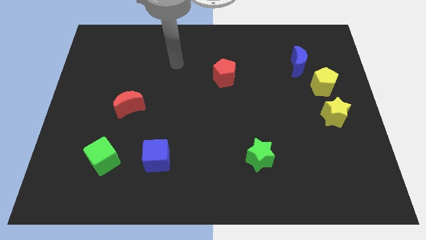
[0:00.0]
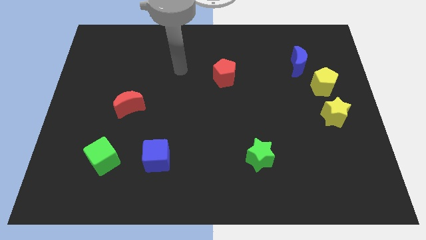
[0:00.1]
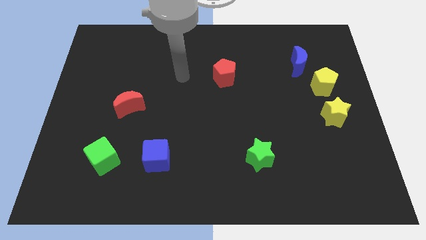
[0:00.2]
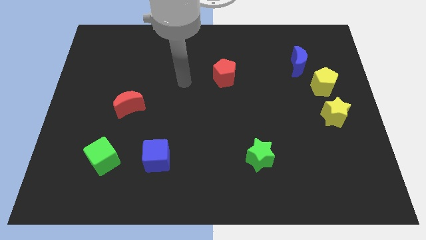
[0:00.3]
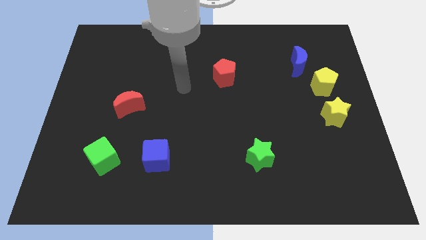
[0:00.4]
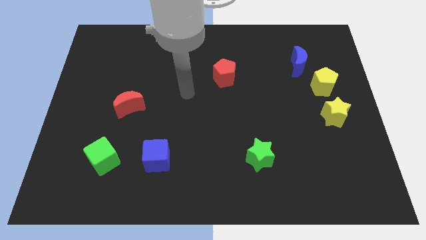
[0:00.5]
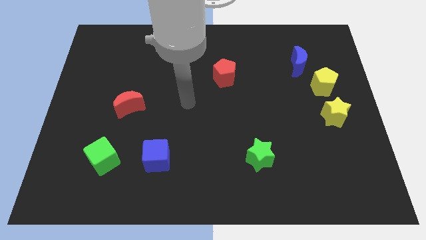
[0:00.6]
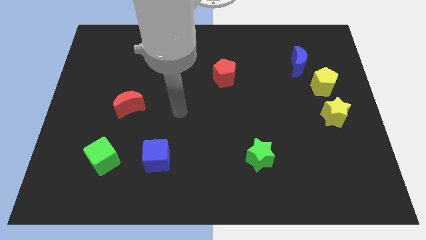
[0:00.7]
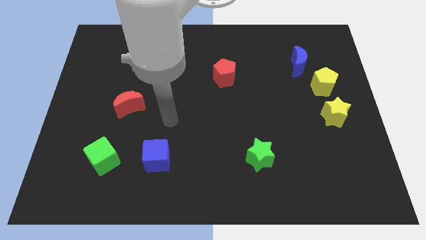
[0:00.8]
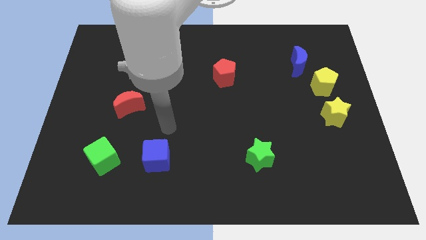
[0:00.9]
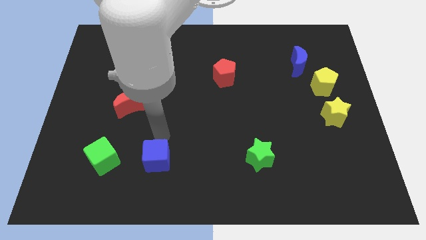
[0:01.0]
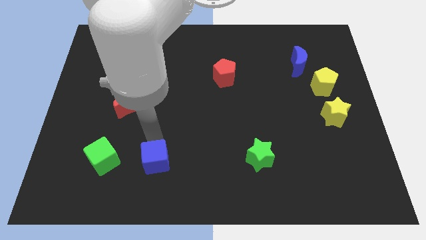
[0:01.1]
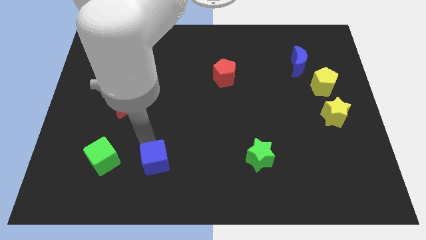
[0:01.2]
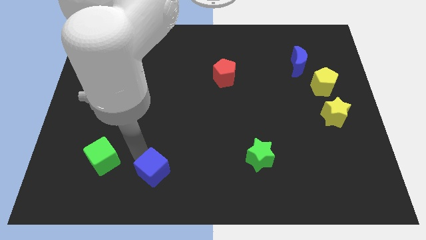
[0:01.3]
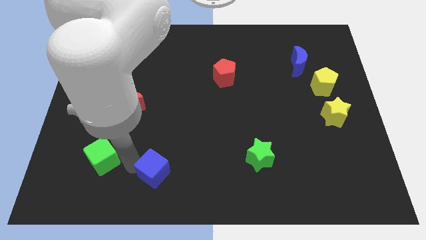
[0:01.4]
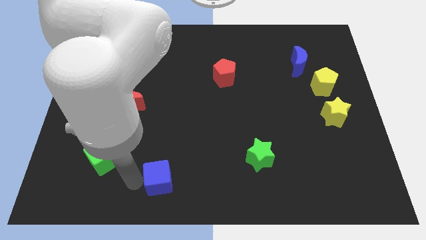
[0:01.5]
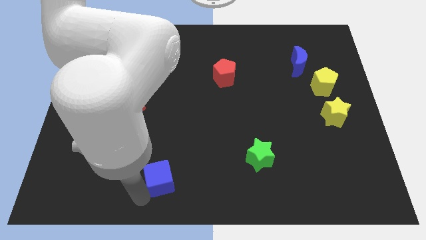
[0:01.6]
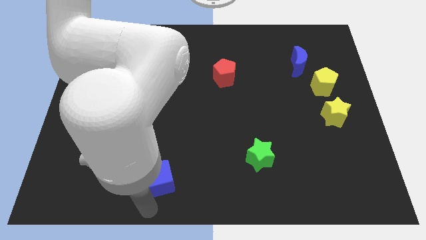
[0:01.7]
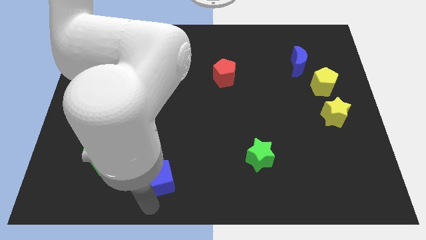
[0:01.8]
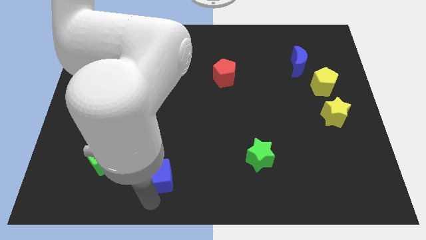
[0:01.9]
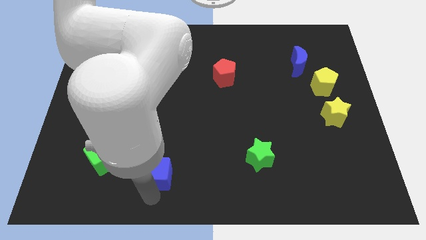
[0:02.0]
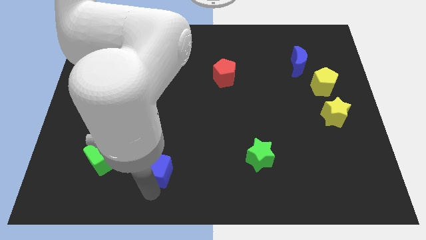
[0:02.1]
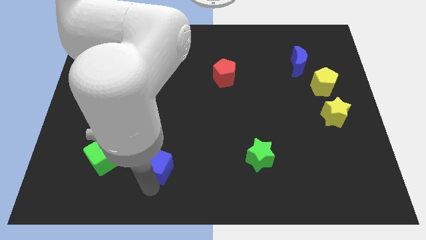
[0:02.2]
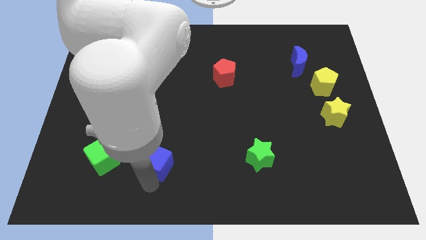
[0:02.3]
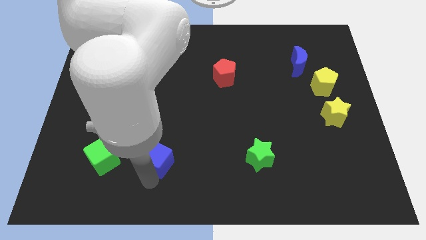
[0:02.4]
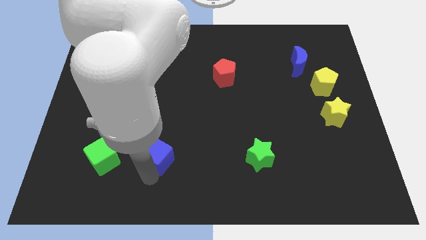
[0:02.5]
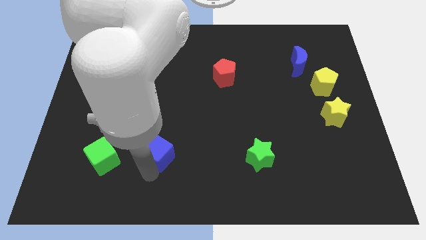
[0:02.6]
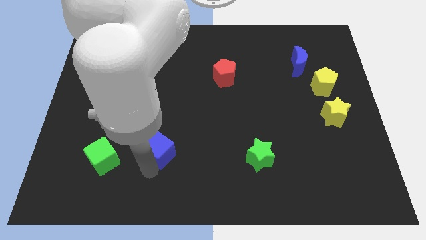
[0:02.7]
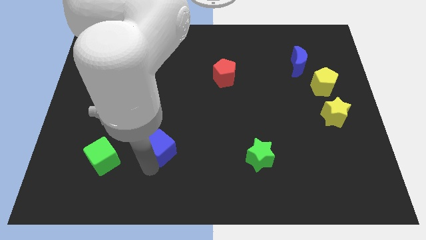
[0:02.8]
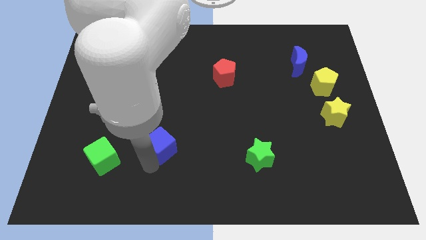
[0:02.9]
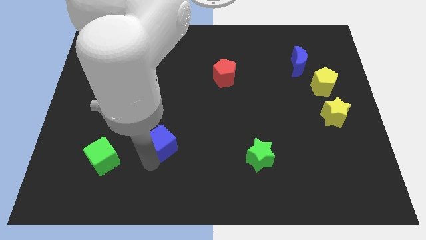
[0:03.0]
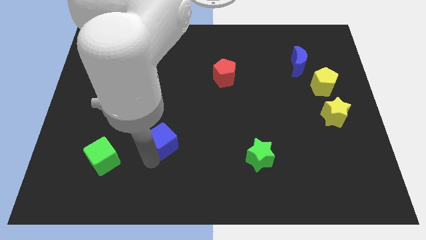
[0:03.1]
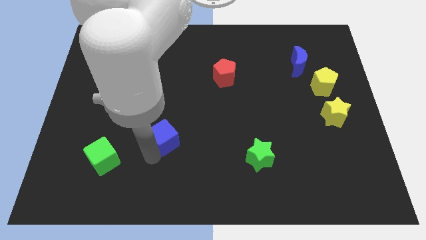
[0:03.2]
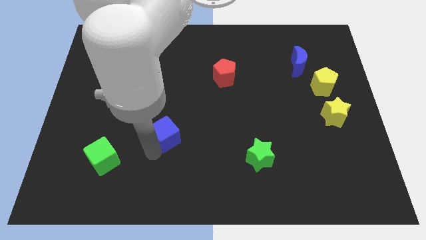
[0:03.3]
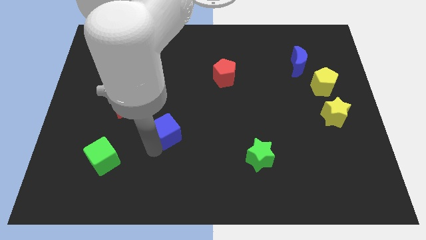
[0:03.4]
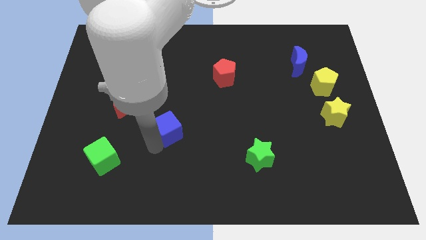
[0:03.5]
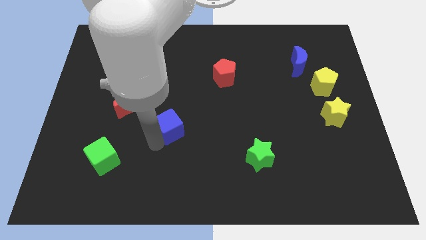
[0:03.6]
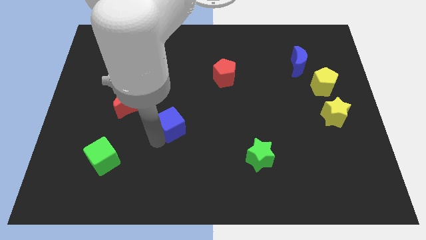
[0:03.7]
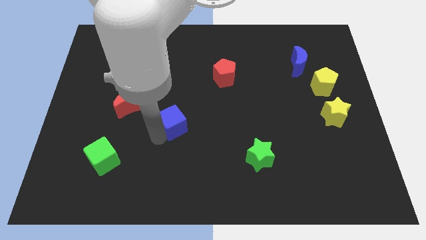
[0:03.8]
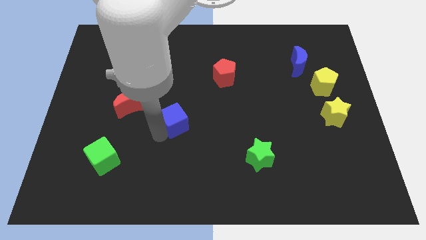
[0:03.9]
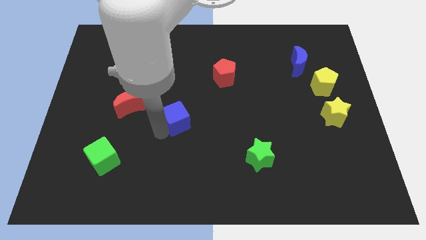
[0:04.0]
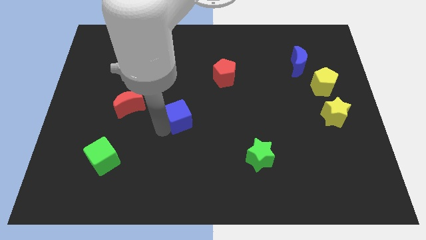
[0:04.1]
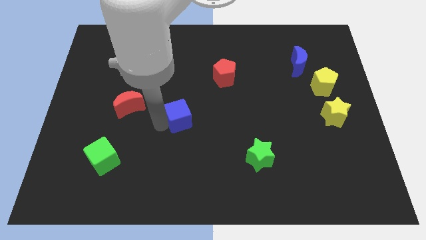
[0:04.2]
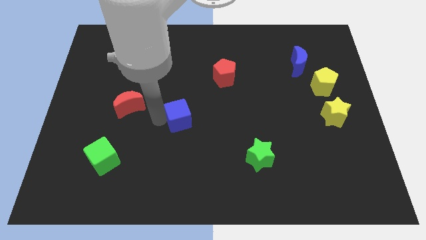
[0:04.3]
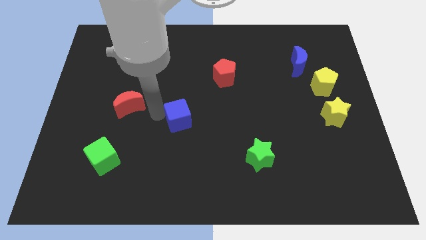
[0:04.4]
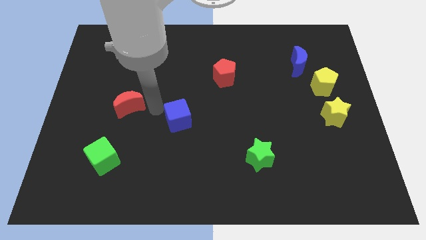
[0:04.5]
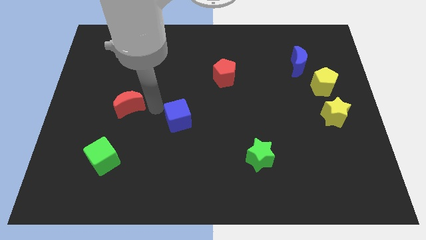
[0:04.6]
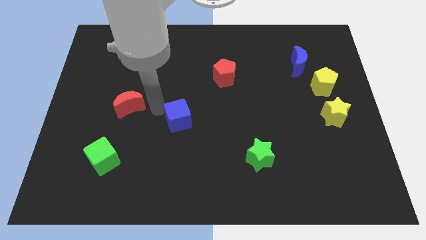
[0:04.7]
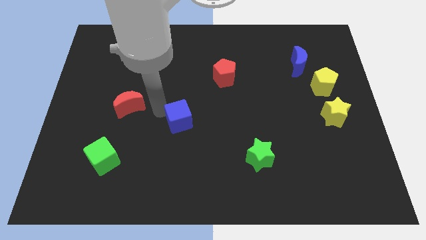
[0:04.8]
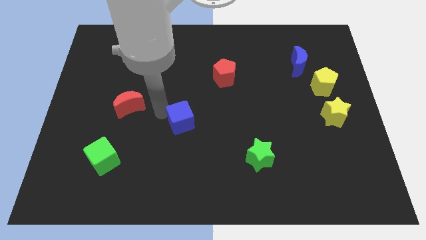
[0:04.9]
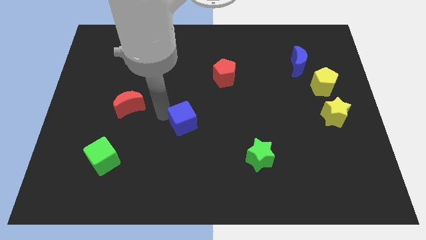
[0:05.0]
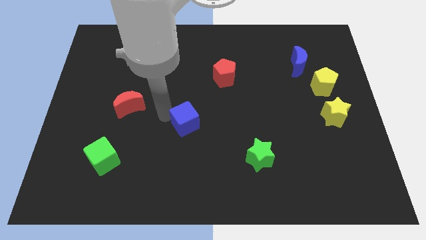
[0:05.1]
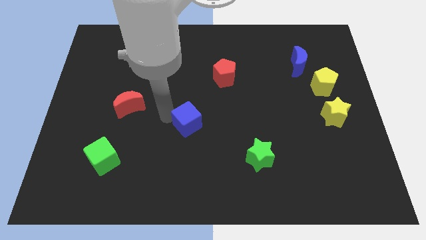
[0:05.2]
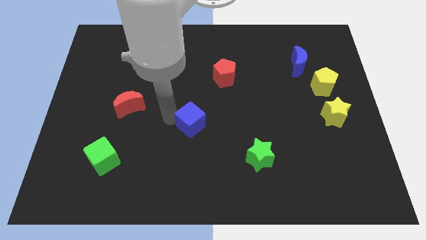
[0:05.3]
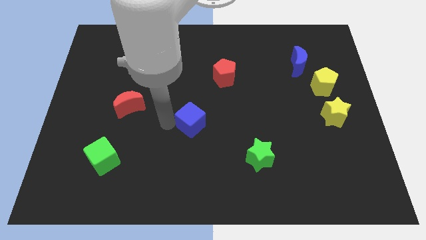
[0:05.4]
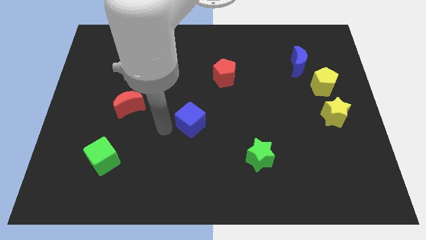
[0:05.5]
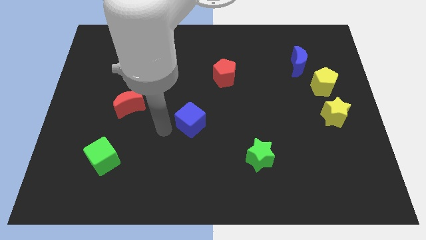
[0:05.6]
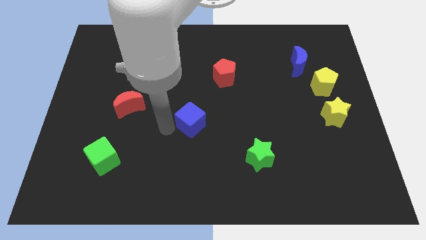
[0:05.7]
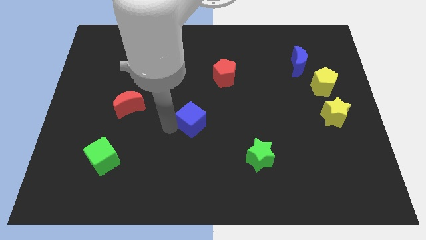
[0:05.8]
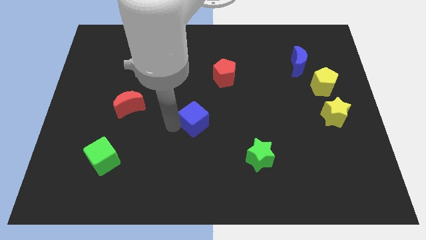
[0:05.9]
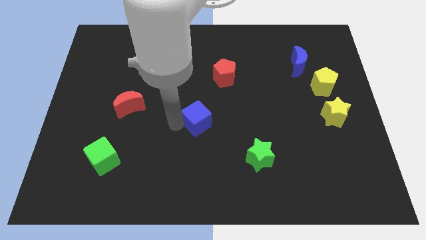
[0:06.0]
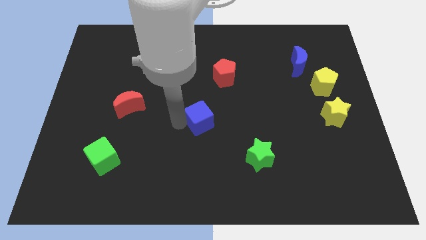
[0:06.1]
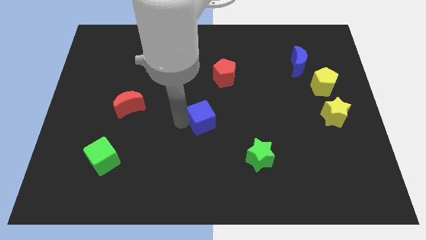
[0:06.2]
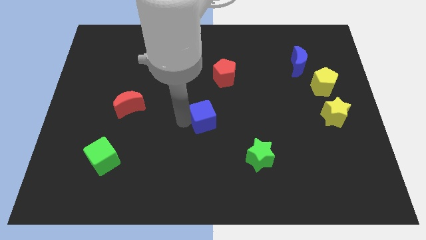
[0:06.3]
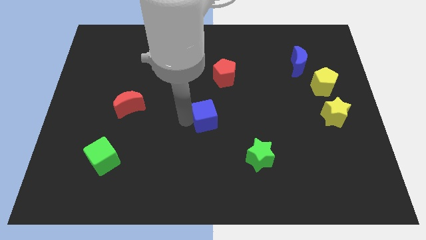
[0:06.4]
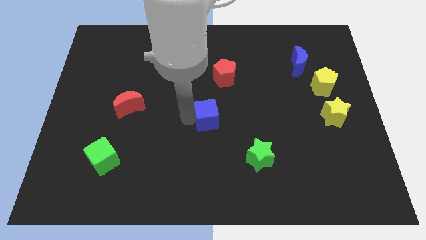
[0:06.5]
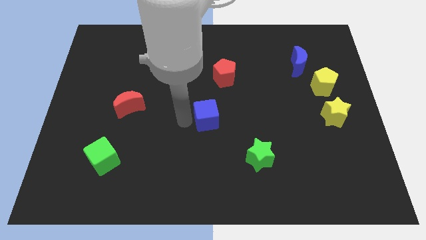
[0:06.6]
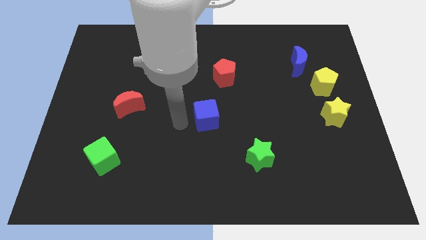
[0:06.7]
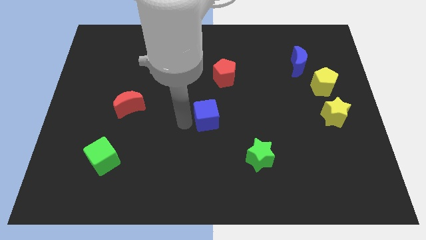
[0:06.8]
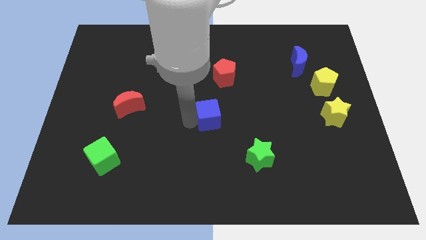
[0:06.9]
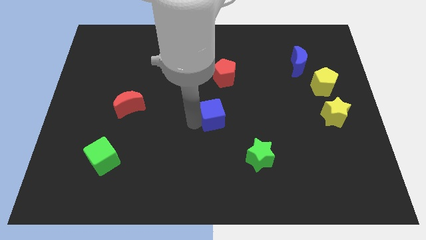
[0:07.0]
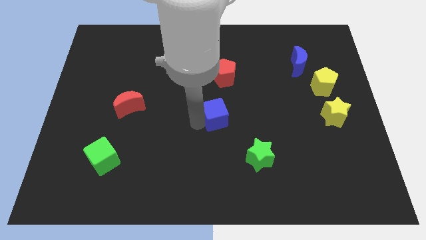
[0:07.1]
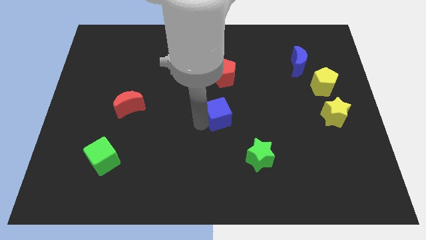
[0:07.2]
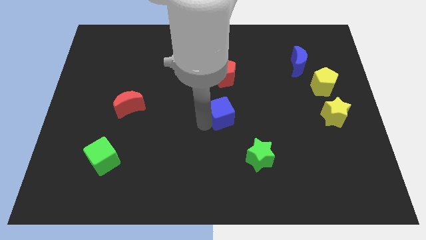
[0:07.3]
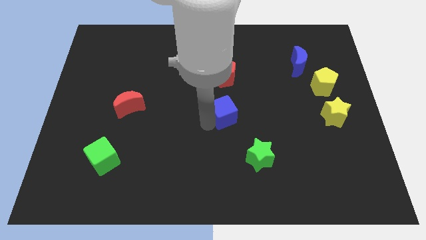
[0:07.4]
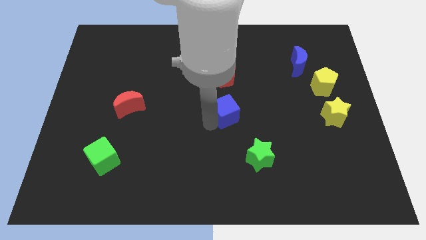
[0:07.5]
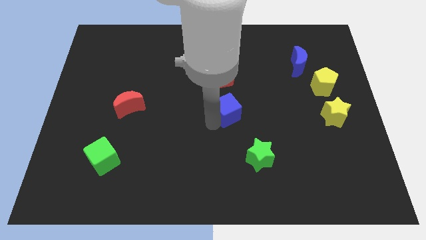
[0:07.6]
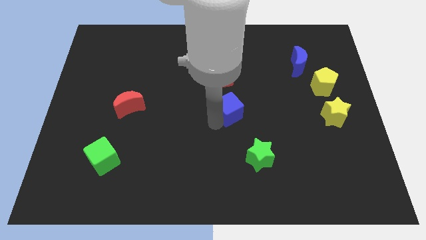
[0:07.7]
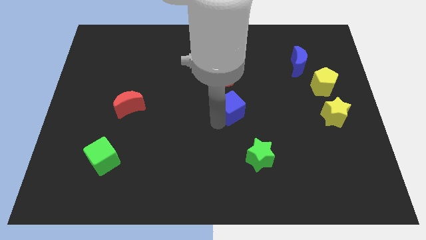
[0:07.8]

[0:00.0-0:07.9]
push the blue cube upwards and right diagonally

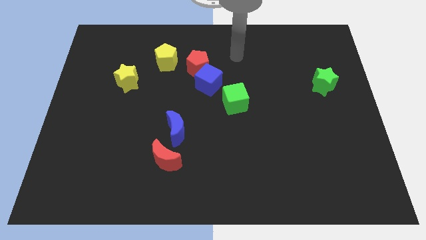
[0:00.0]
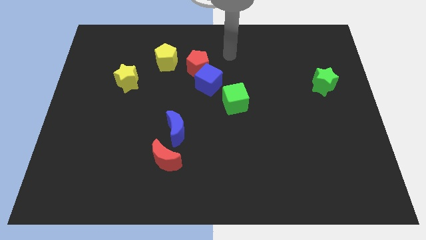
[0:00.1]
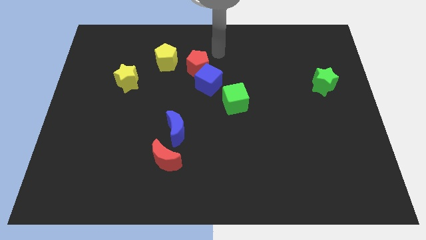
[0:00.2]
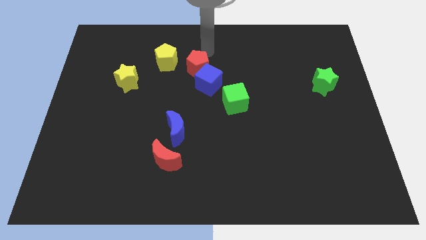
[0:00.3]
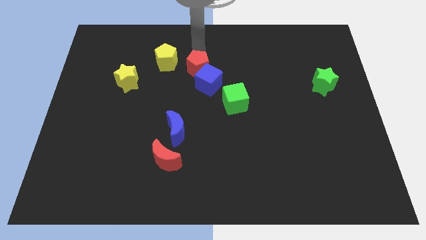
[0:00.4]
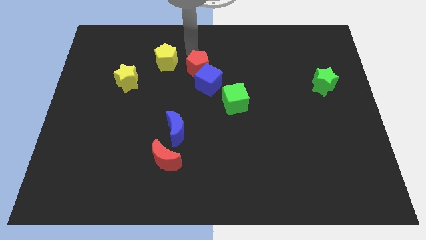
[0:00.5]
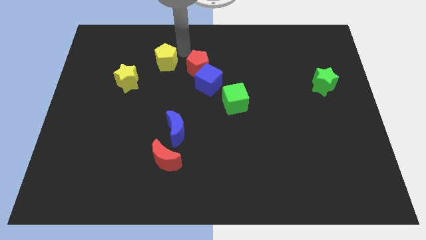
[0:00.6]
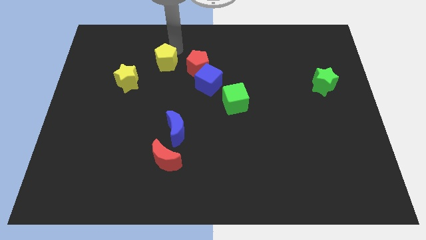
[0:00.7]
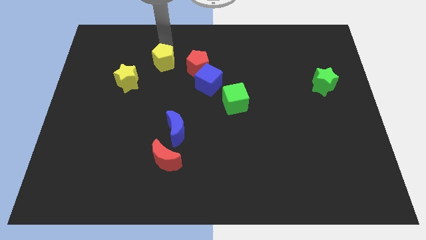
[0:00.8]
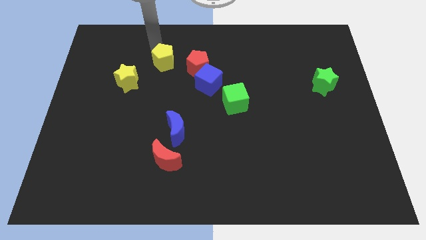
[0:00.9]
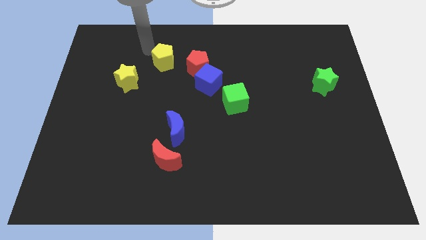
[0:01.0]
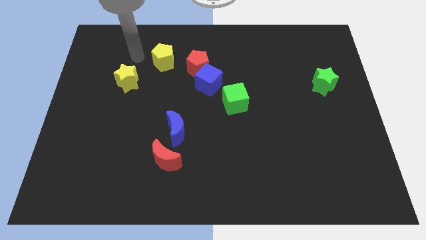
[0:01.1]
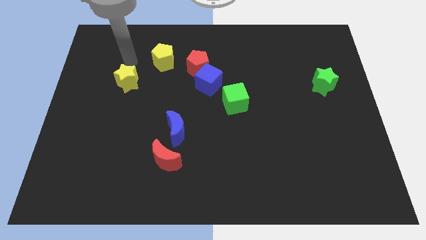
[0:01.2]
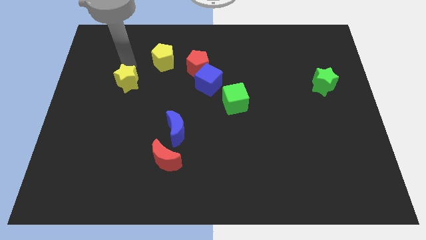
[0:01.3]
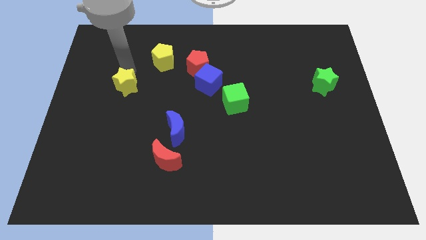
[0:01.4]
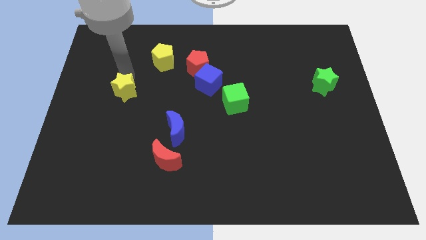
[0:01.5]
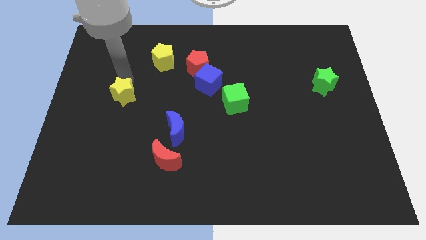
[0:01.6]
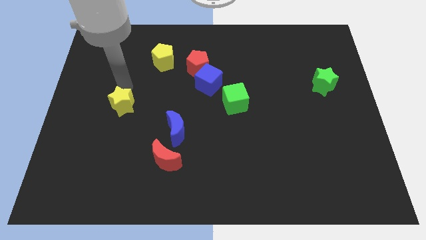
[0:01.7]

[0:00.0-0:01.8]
slide the yellow star a little bit down
